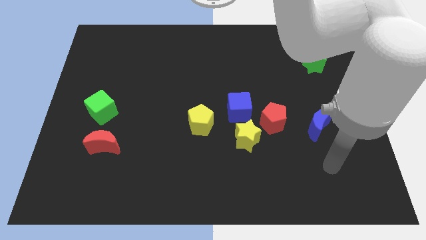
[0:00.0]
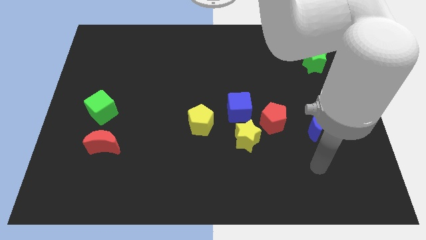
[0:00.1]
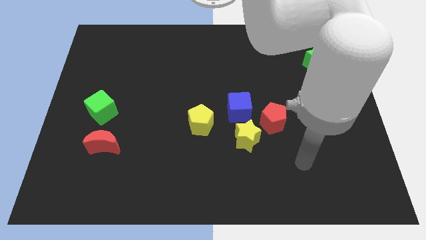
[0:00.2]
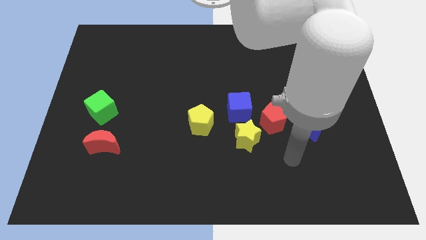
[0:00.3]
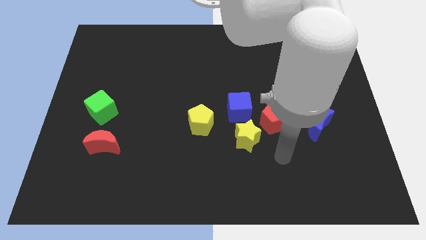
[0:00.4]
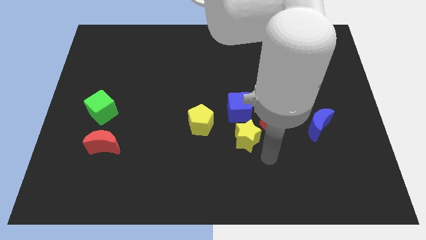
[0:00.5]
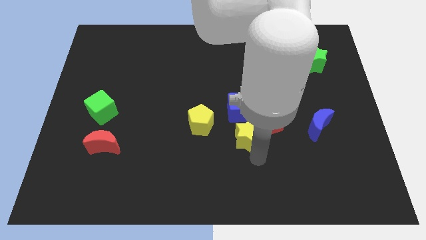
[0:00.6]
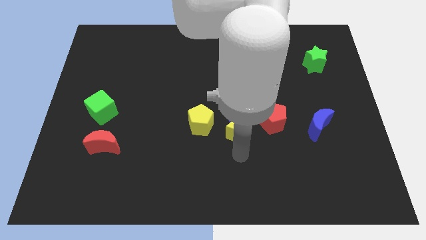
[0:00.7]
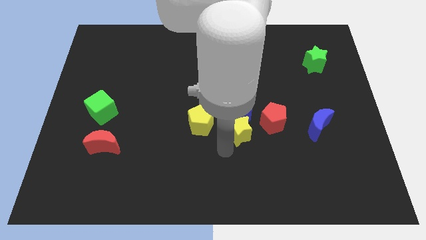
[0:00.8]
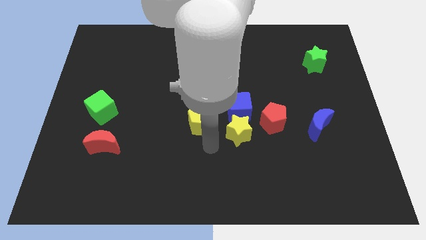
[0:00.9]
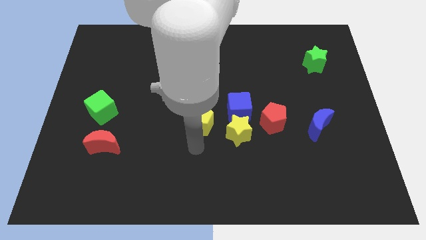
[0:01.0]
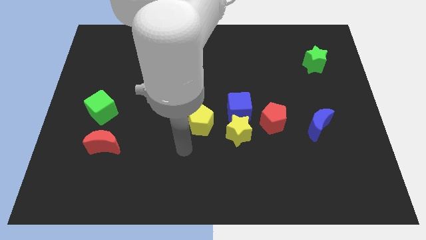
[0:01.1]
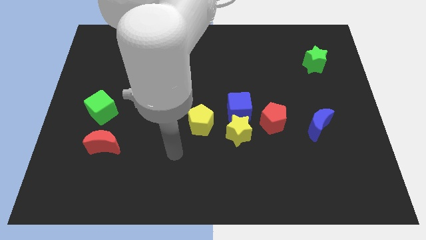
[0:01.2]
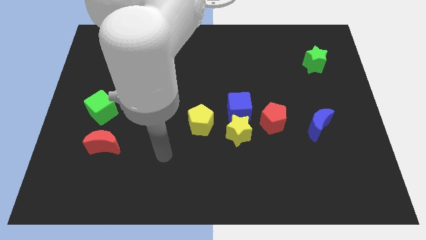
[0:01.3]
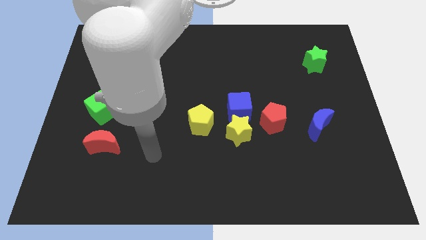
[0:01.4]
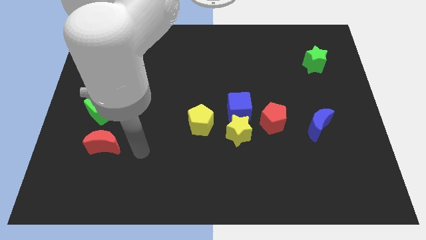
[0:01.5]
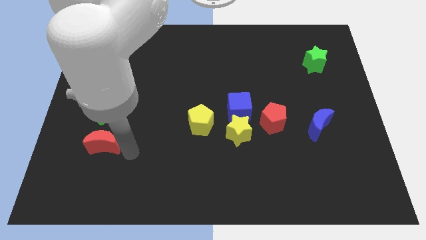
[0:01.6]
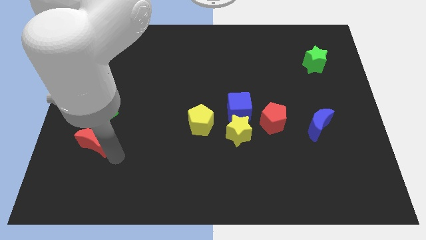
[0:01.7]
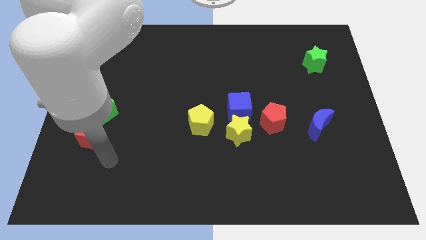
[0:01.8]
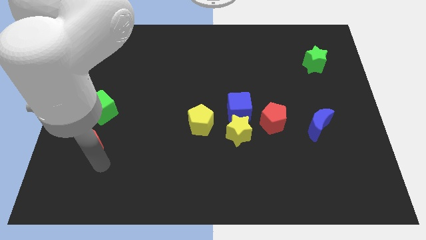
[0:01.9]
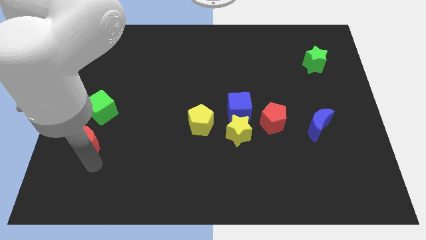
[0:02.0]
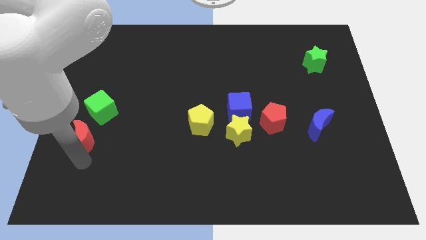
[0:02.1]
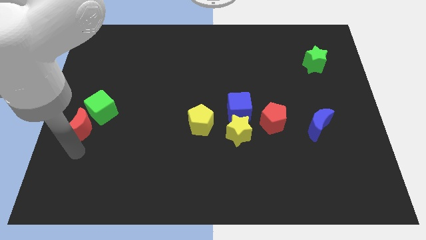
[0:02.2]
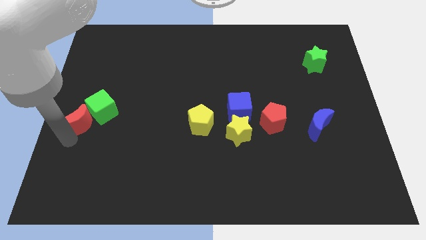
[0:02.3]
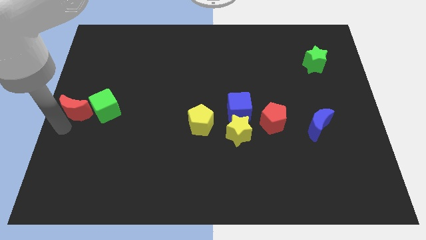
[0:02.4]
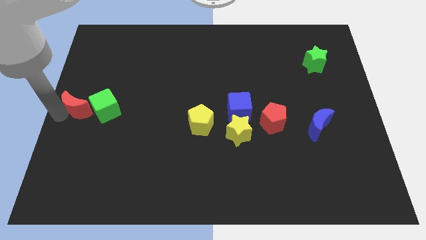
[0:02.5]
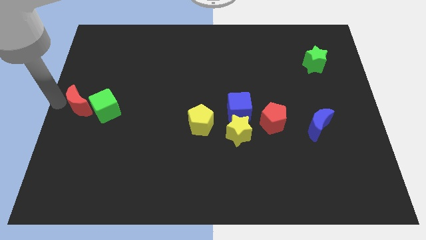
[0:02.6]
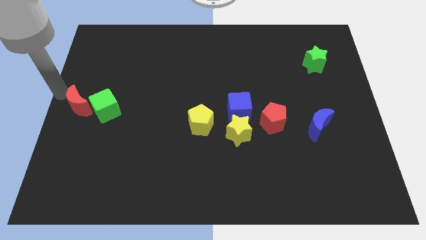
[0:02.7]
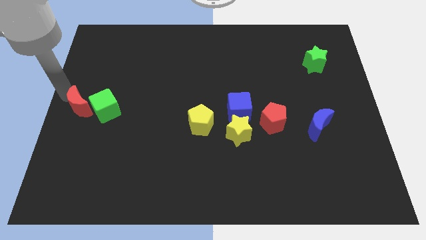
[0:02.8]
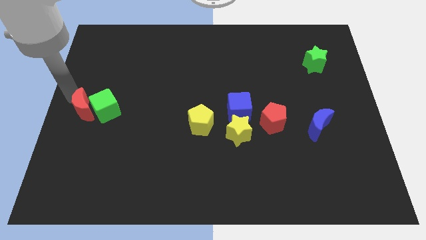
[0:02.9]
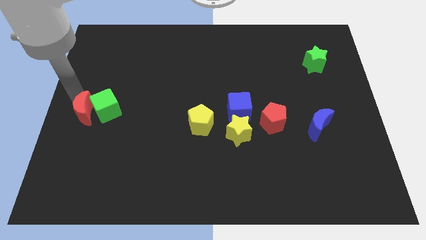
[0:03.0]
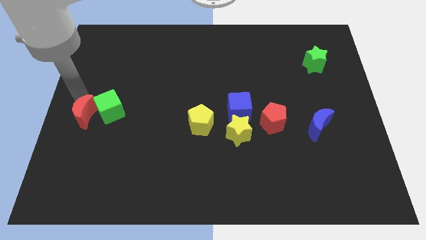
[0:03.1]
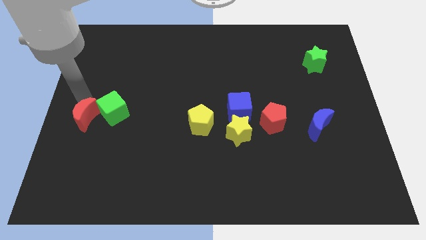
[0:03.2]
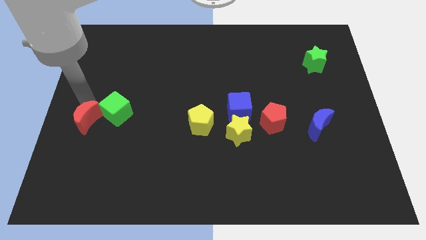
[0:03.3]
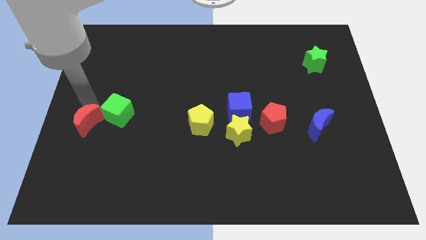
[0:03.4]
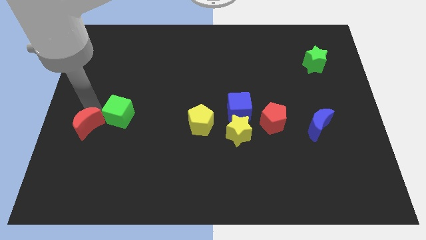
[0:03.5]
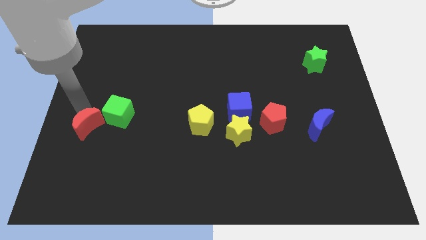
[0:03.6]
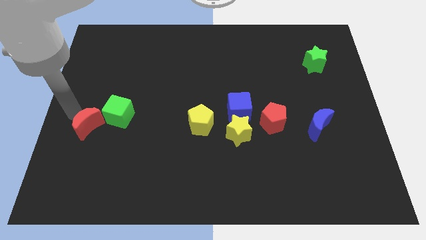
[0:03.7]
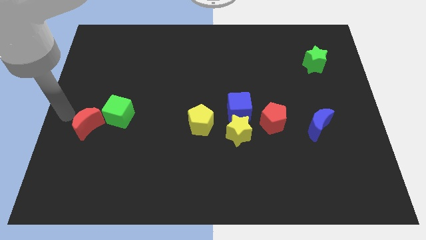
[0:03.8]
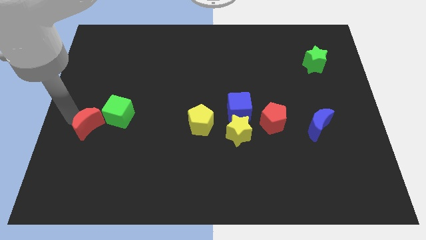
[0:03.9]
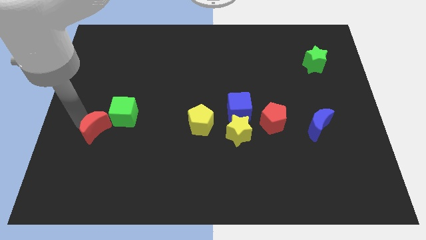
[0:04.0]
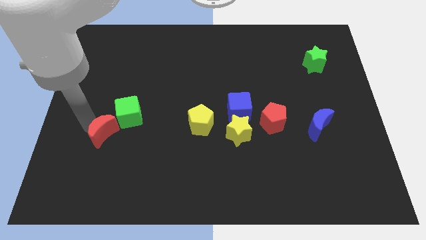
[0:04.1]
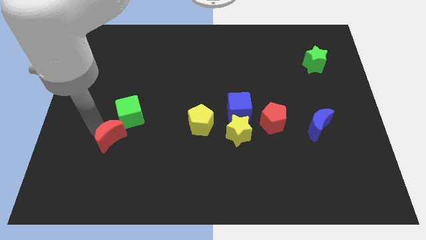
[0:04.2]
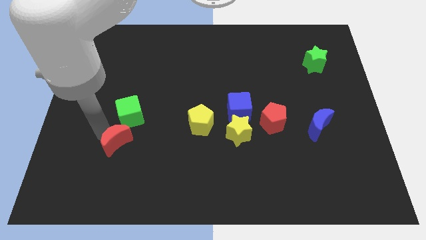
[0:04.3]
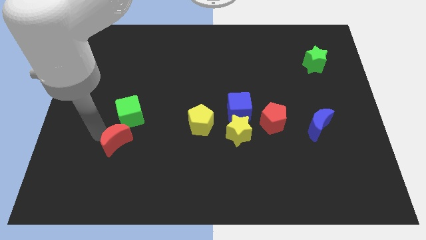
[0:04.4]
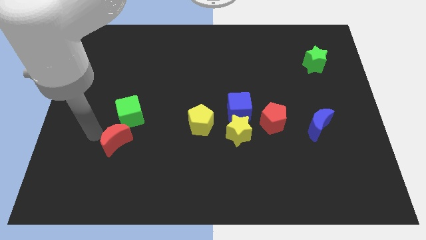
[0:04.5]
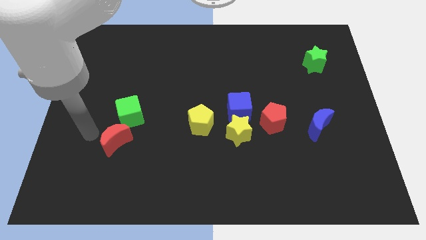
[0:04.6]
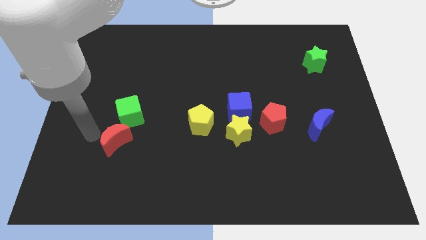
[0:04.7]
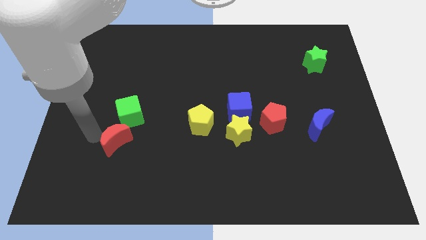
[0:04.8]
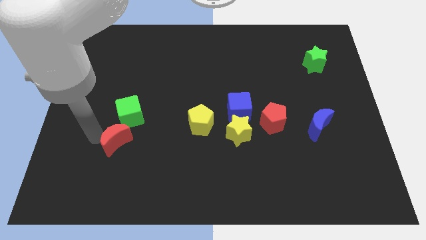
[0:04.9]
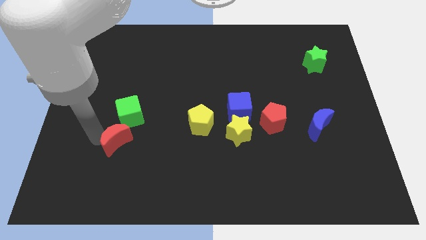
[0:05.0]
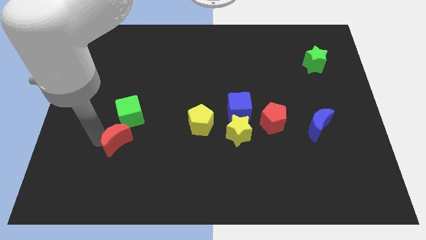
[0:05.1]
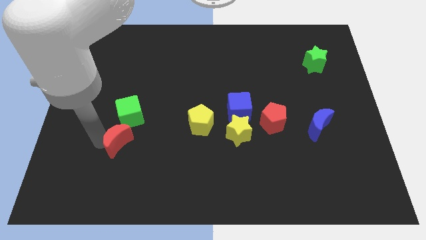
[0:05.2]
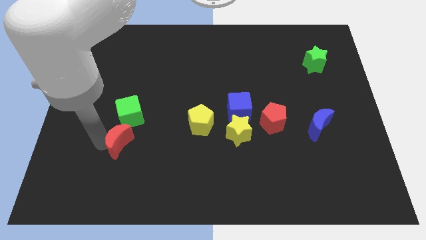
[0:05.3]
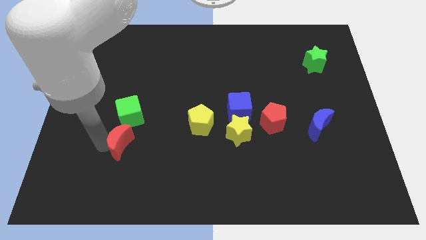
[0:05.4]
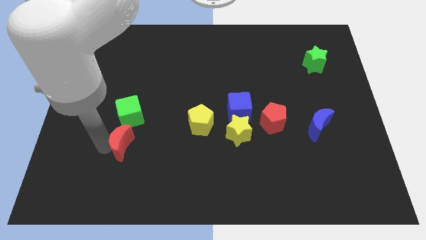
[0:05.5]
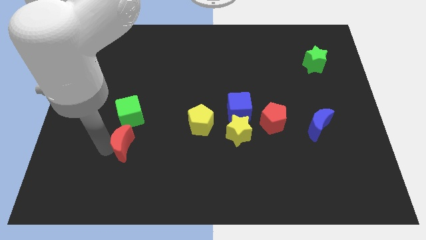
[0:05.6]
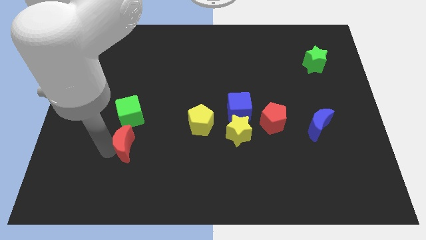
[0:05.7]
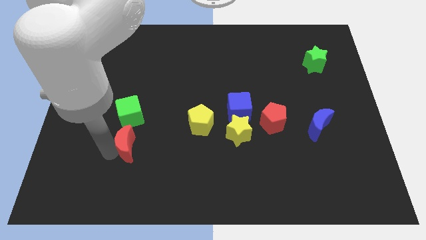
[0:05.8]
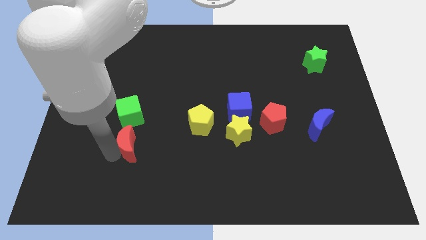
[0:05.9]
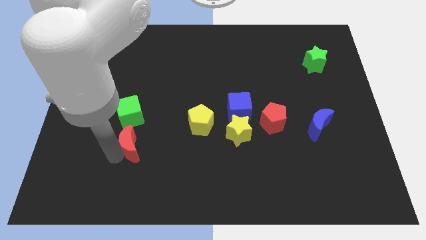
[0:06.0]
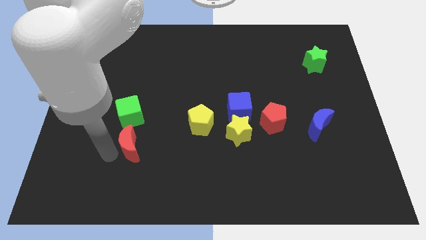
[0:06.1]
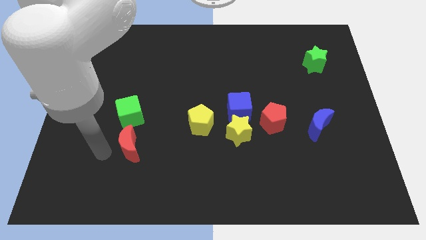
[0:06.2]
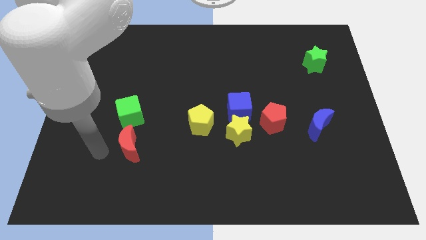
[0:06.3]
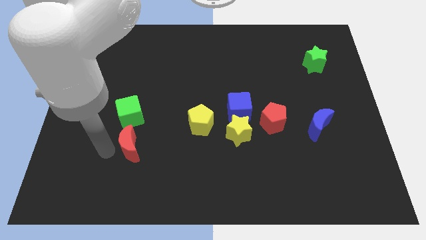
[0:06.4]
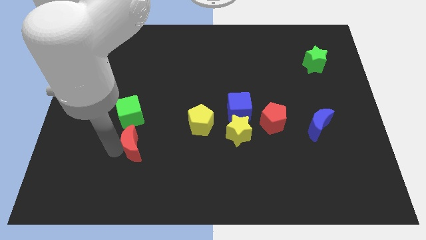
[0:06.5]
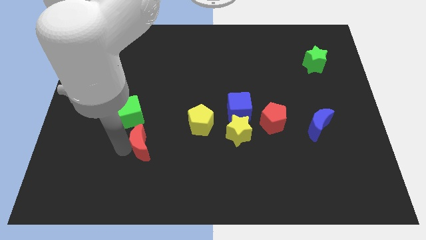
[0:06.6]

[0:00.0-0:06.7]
move the red moon a little bit right

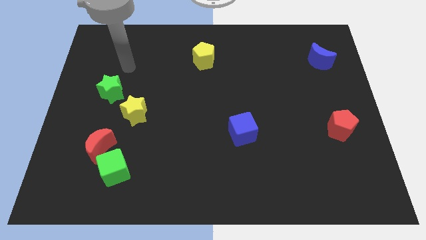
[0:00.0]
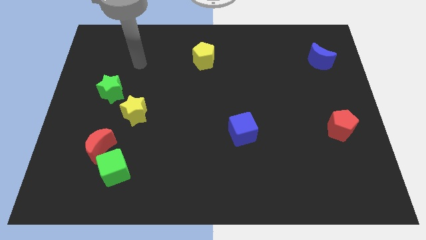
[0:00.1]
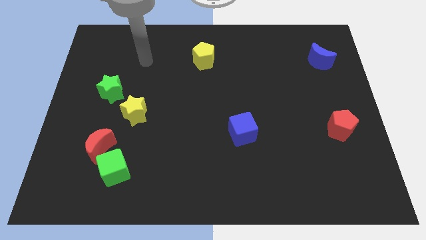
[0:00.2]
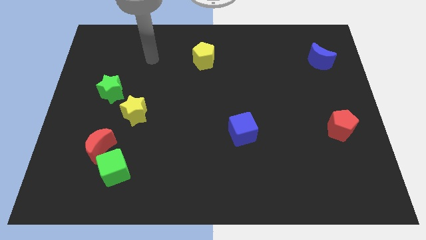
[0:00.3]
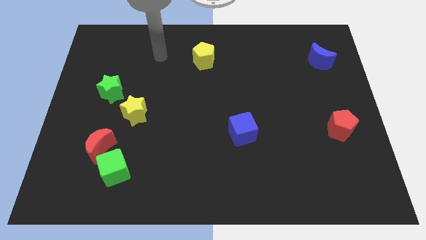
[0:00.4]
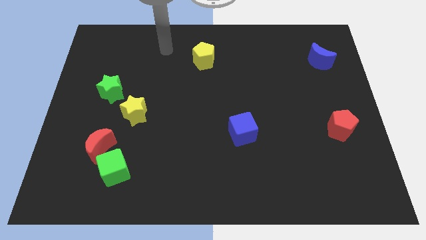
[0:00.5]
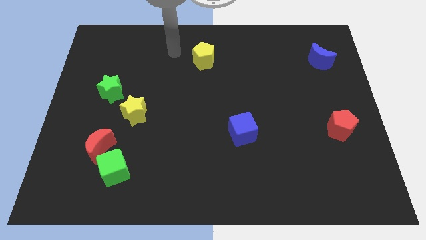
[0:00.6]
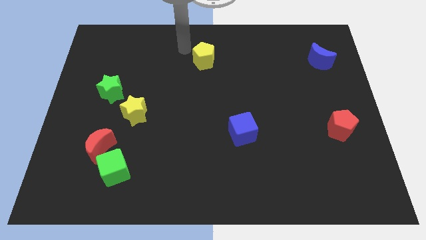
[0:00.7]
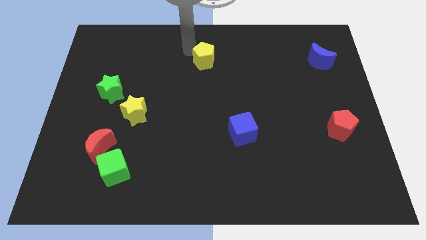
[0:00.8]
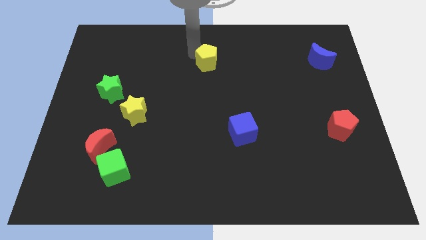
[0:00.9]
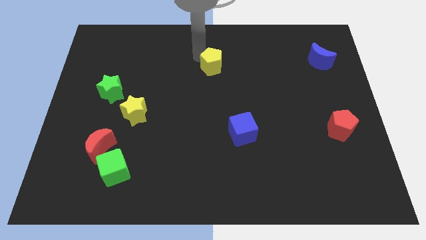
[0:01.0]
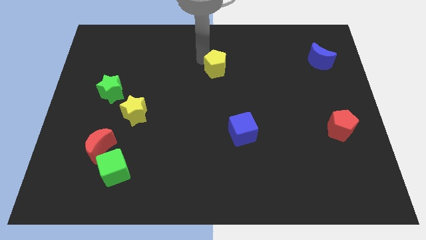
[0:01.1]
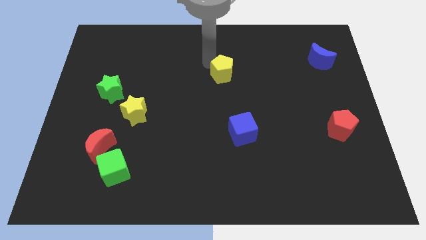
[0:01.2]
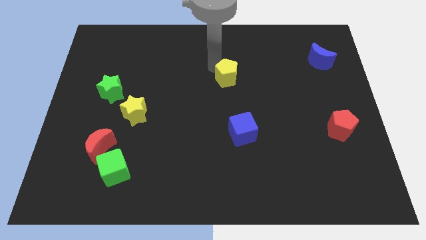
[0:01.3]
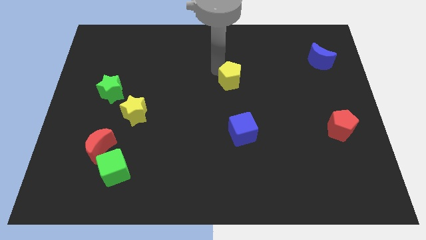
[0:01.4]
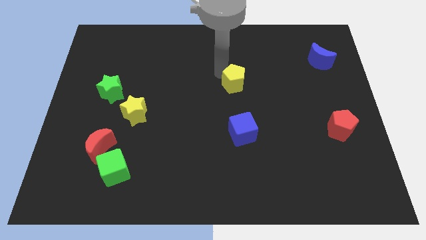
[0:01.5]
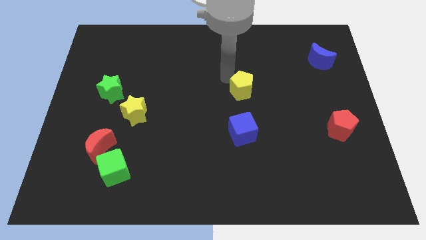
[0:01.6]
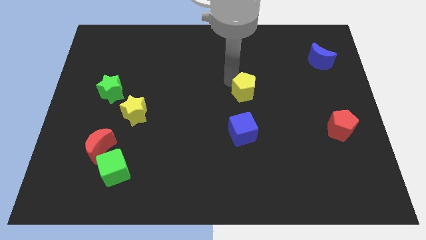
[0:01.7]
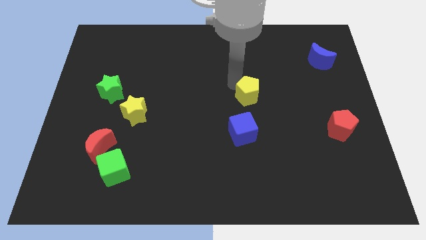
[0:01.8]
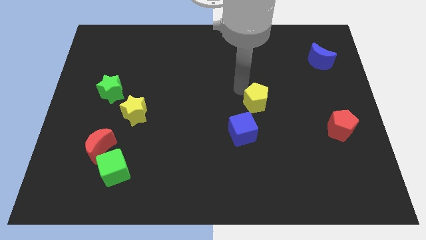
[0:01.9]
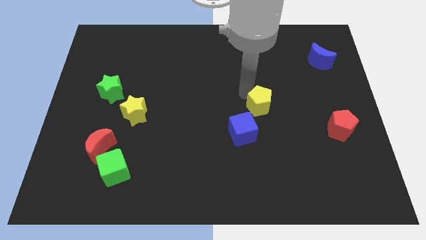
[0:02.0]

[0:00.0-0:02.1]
push the yellow pentagon down and to the right diagonally
